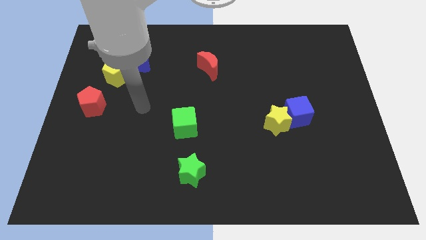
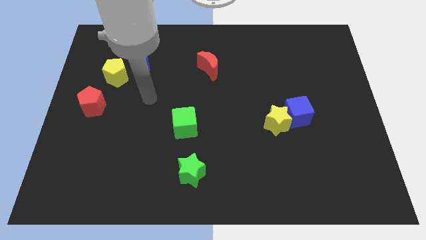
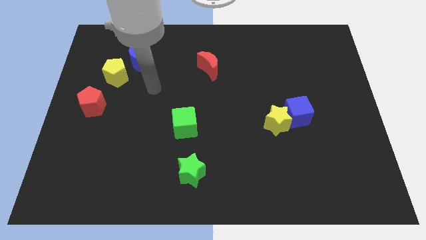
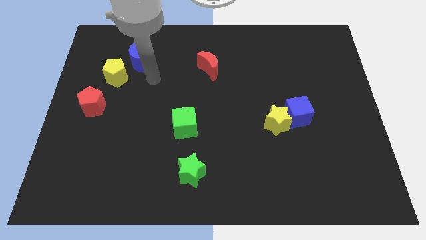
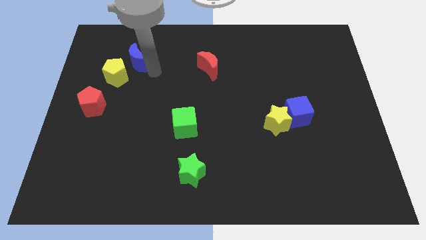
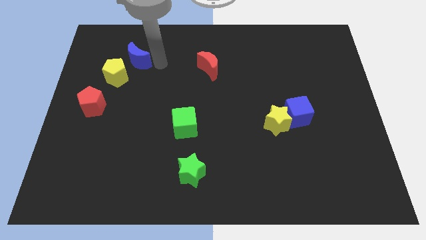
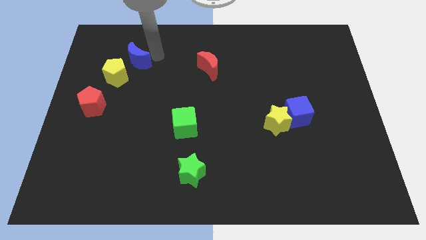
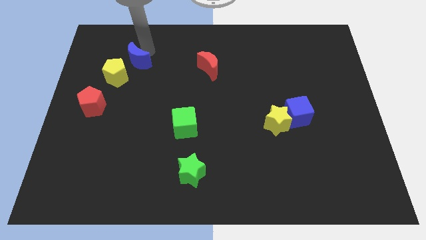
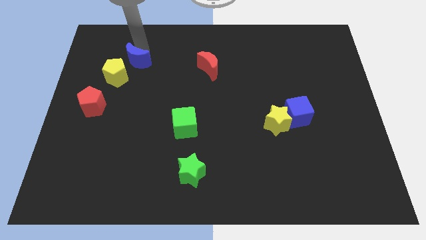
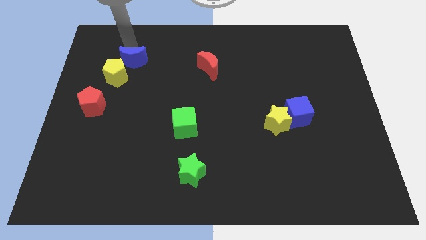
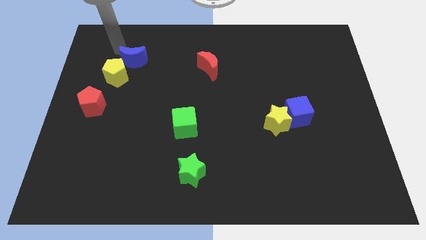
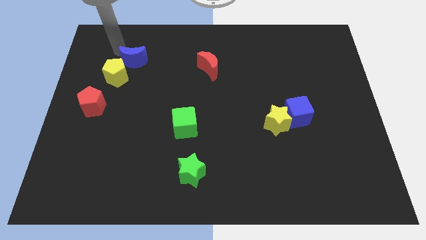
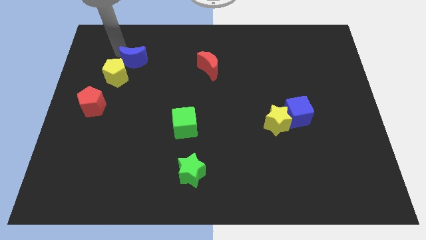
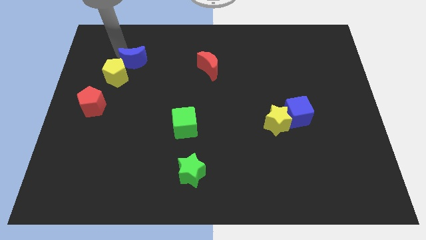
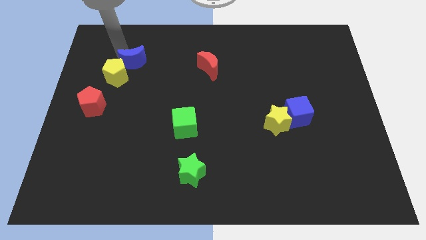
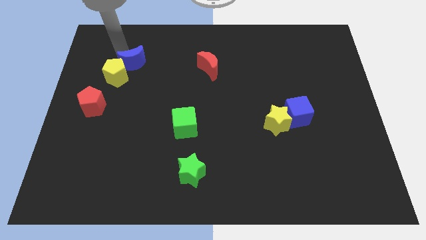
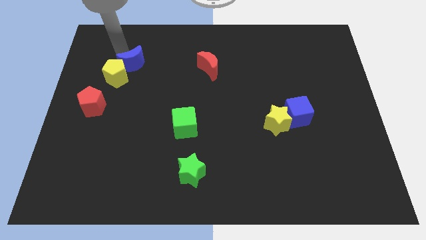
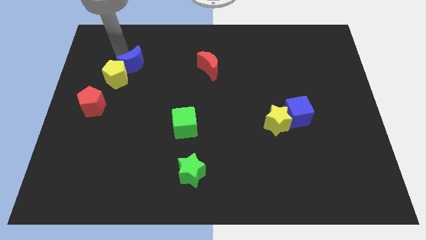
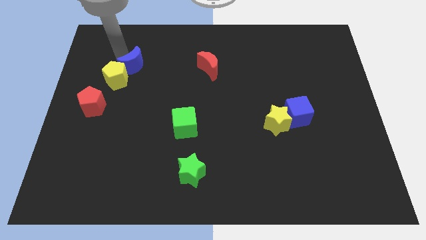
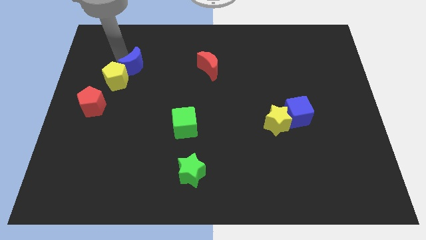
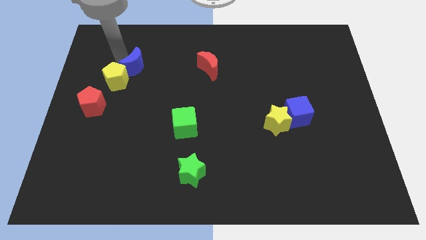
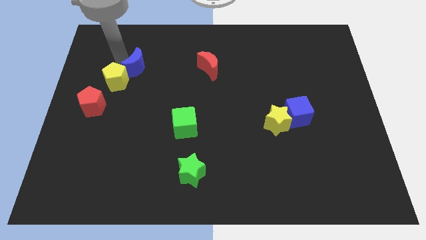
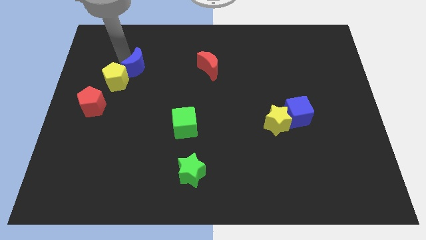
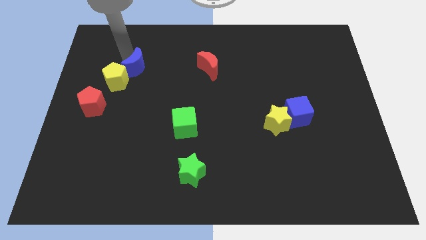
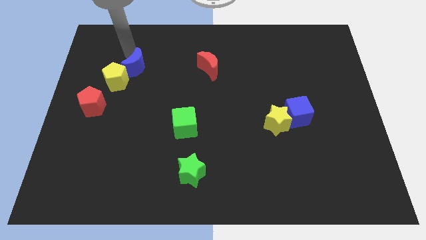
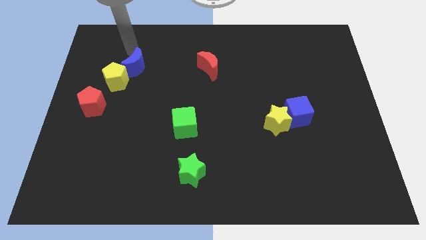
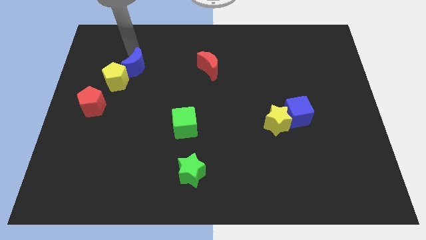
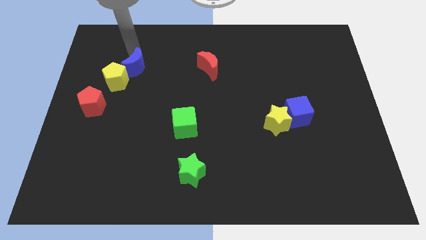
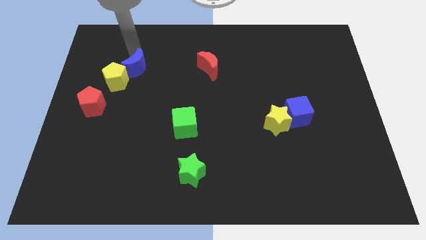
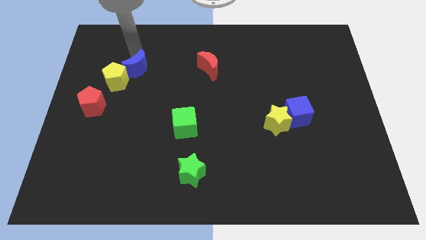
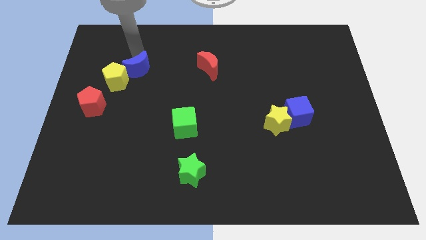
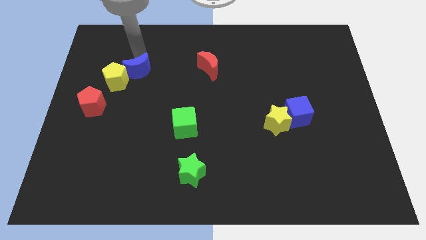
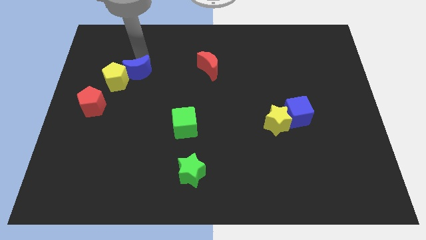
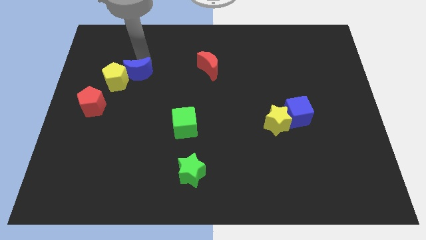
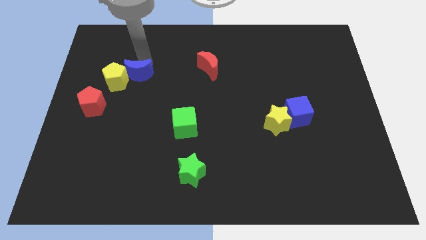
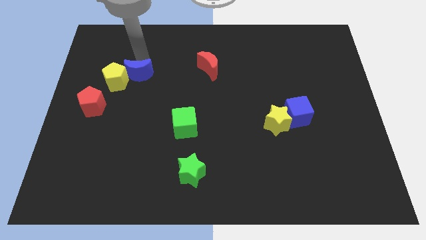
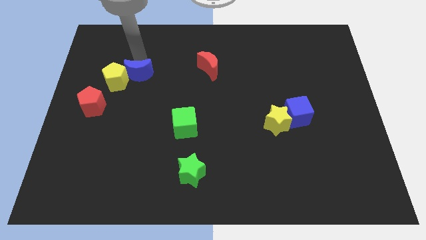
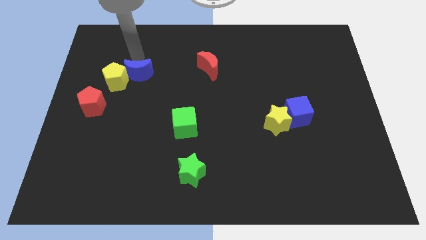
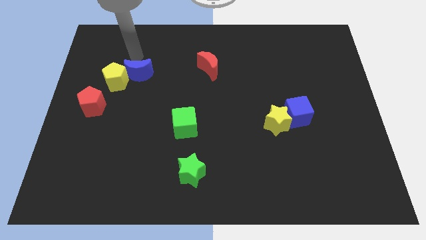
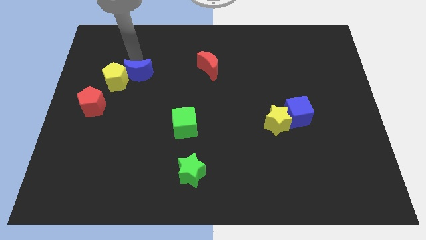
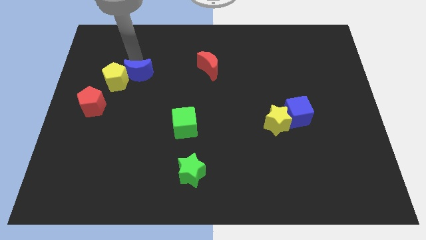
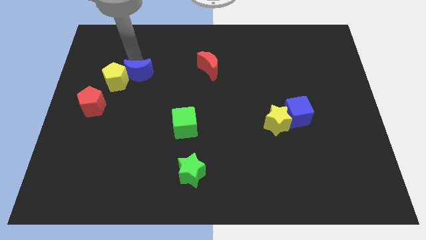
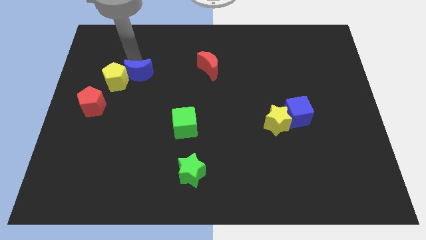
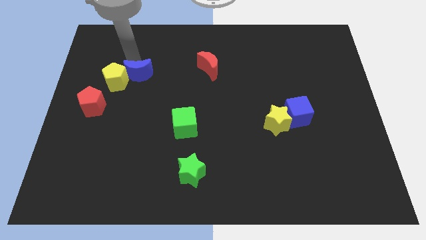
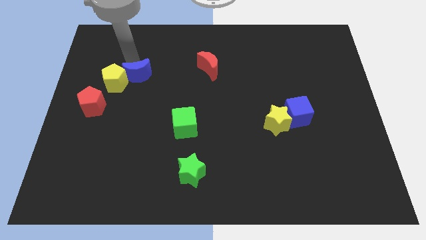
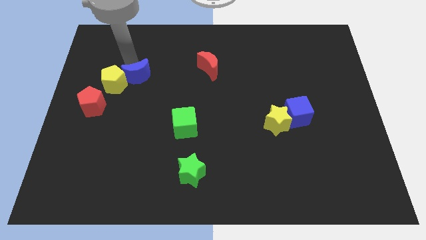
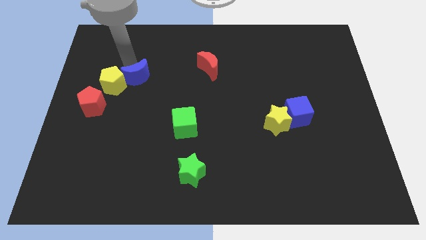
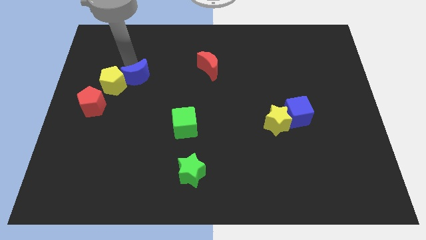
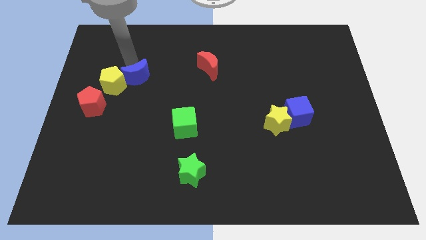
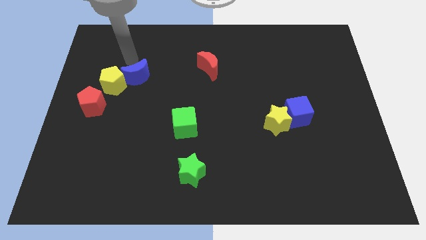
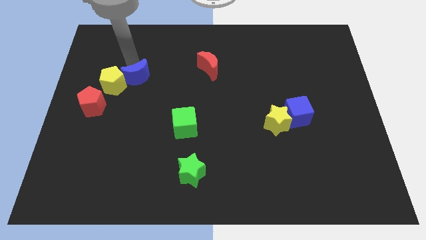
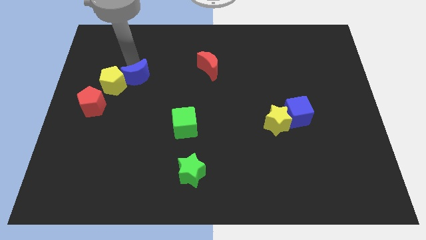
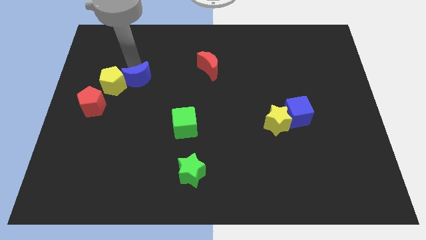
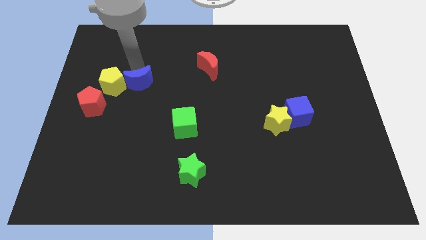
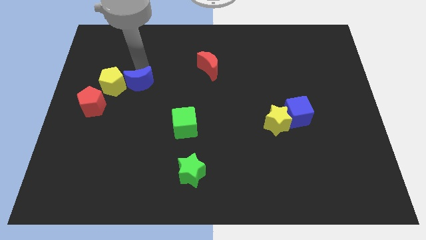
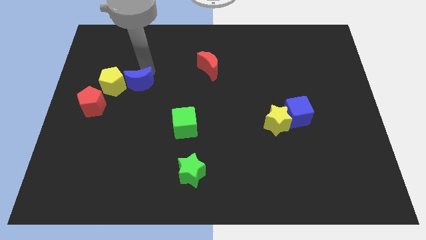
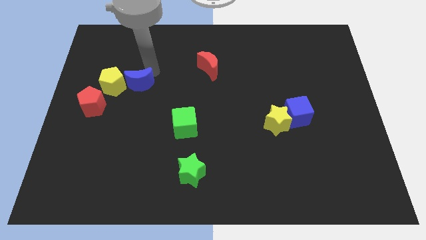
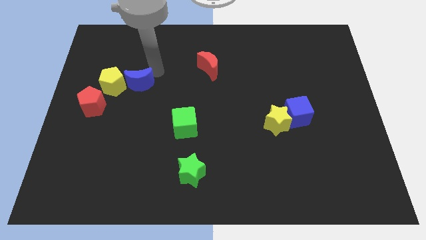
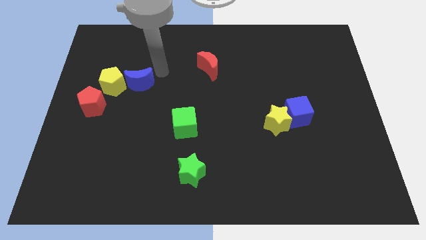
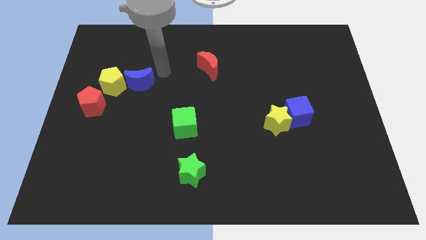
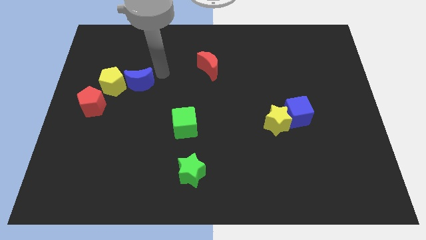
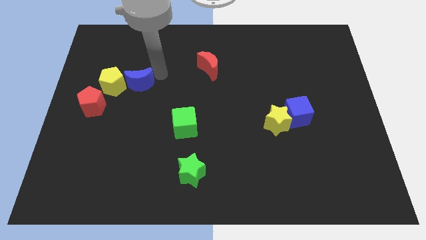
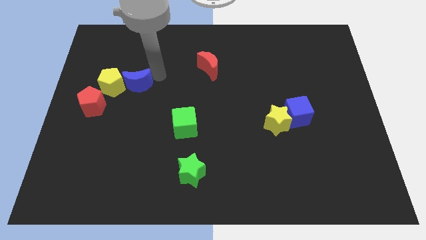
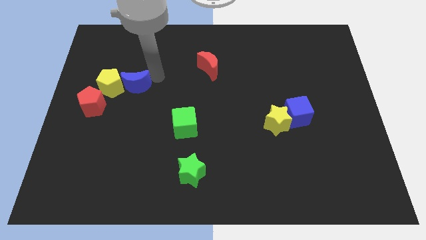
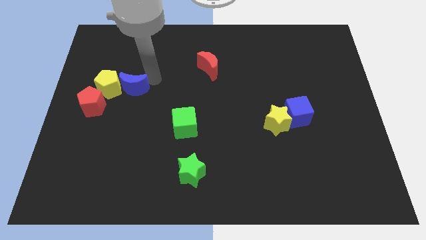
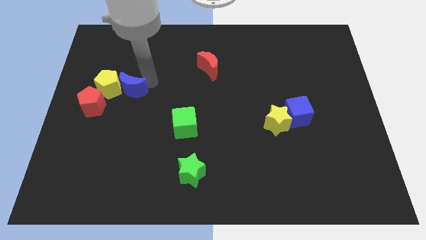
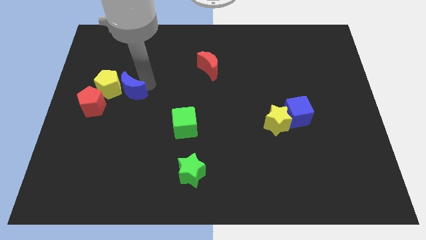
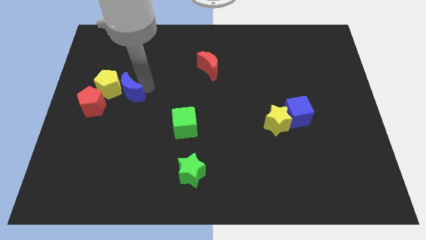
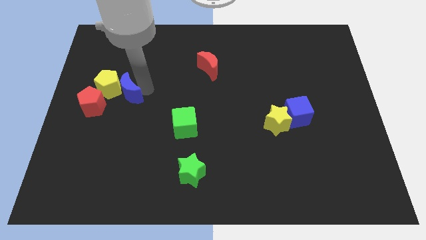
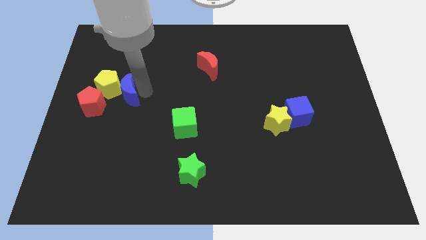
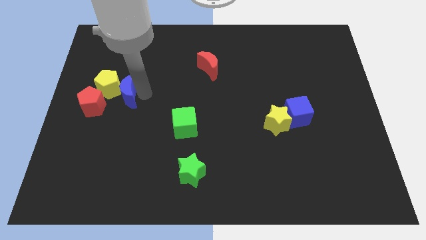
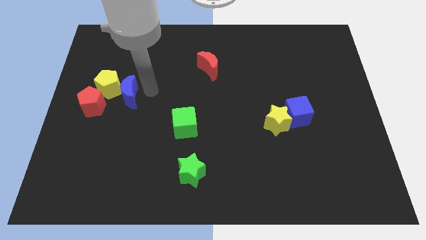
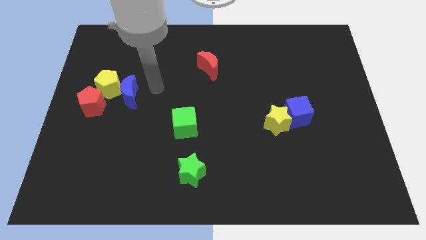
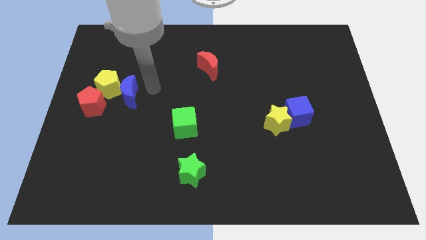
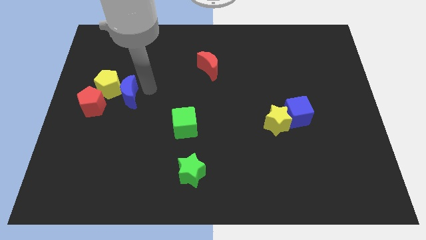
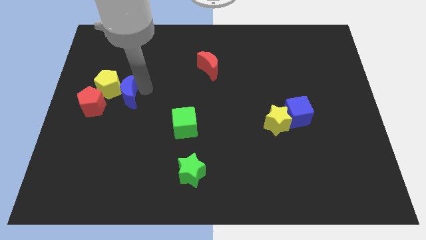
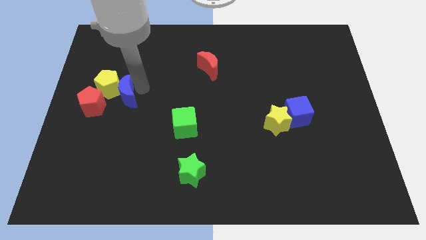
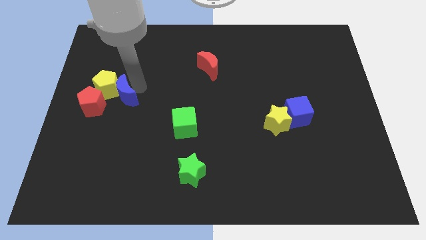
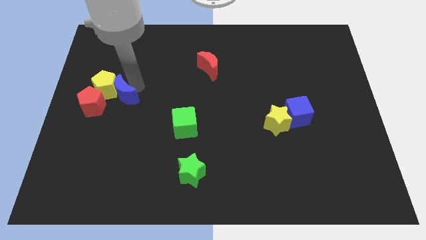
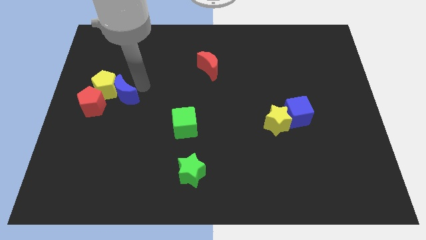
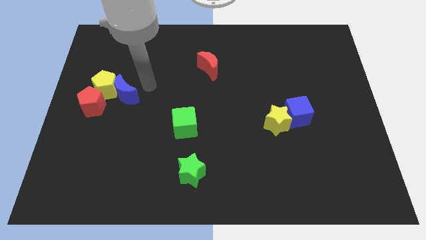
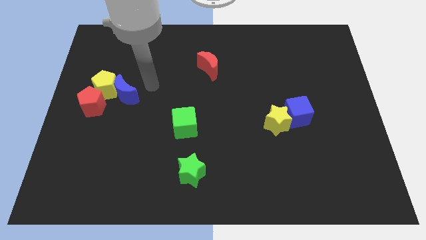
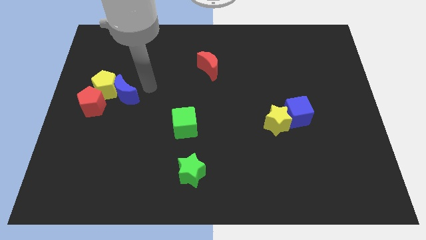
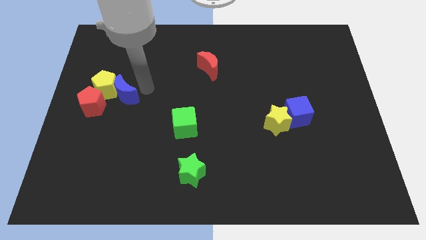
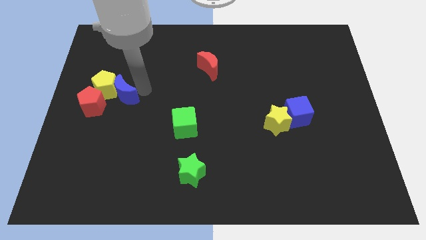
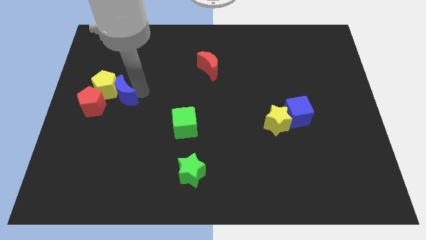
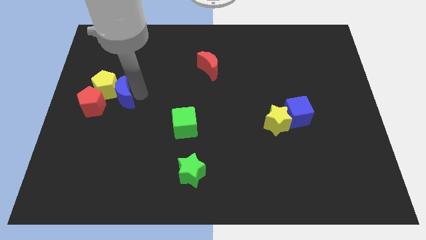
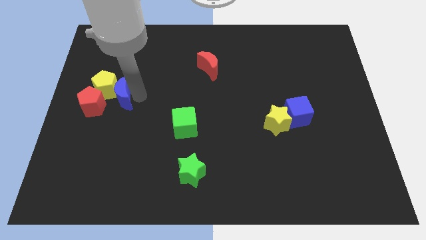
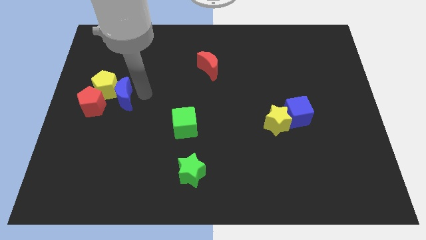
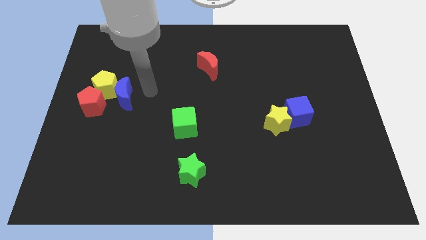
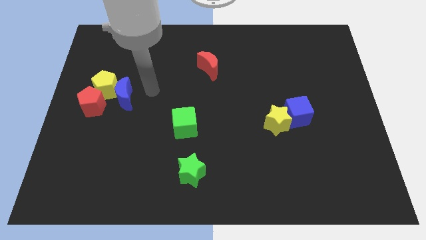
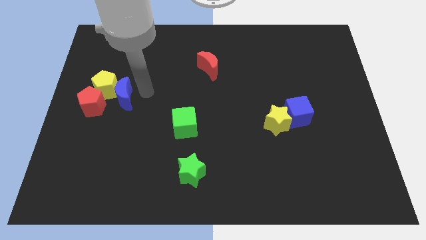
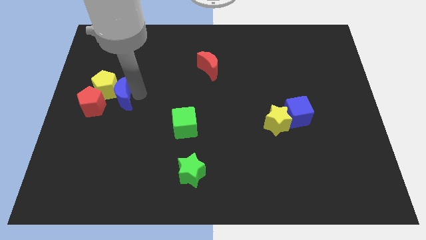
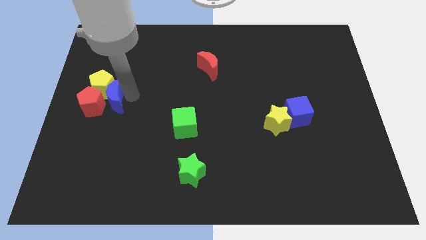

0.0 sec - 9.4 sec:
push the blue moon close to the red pentagon
